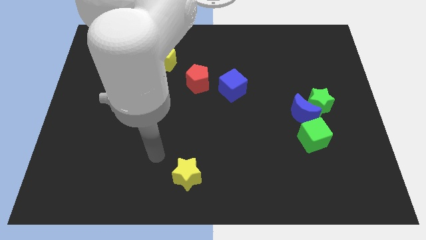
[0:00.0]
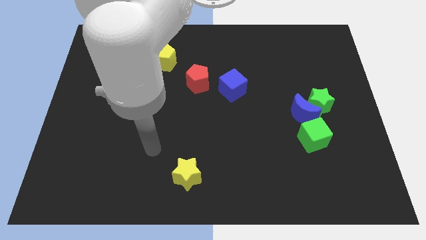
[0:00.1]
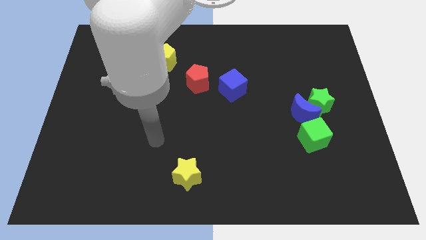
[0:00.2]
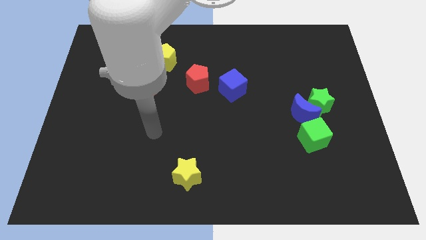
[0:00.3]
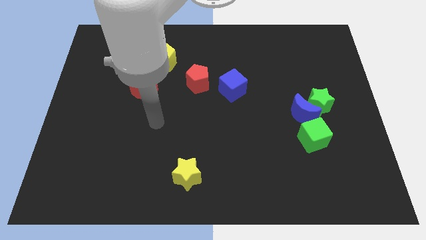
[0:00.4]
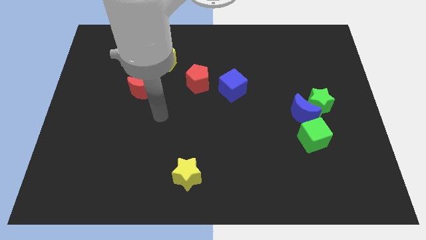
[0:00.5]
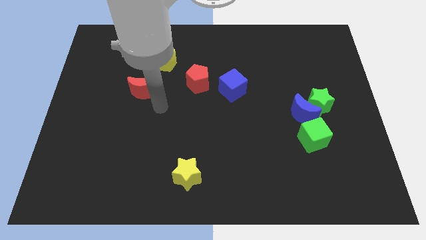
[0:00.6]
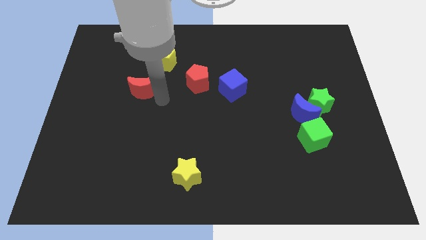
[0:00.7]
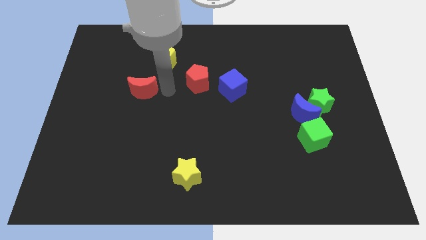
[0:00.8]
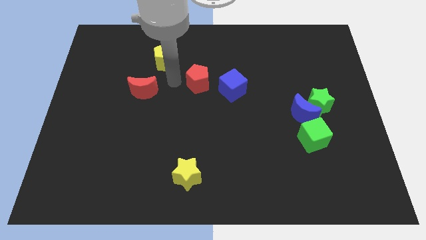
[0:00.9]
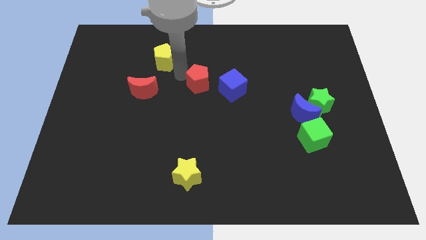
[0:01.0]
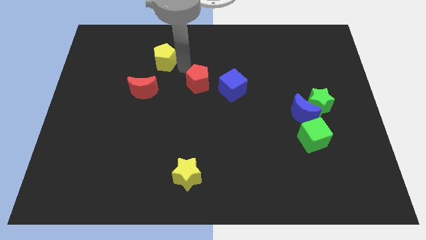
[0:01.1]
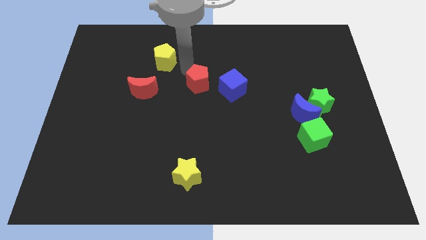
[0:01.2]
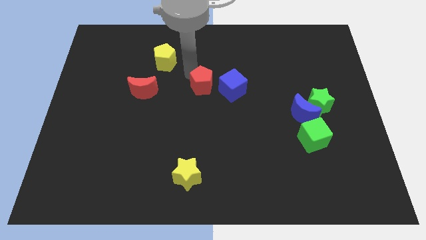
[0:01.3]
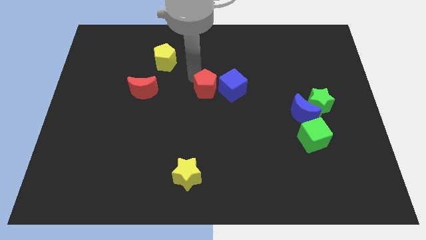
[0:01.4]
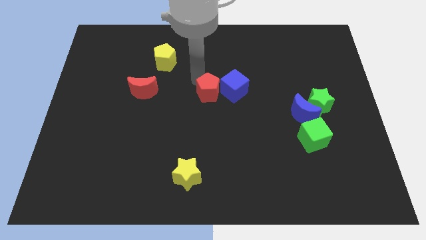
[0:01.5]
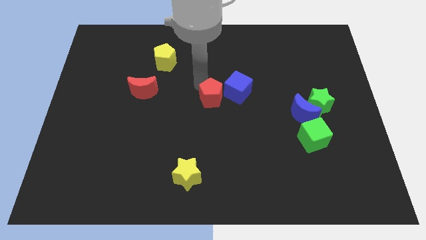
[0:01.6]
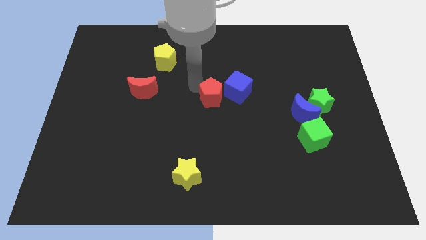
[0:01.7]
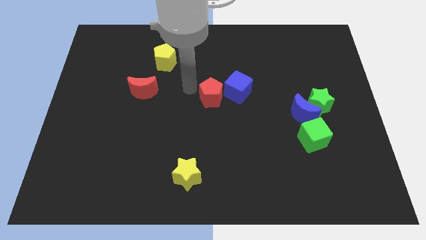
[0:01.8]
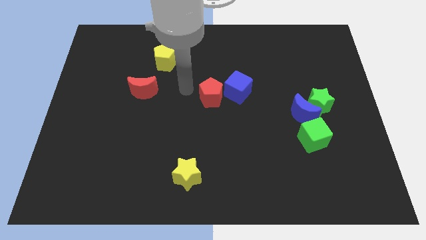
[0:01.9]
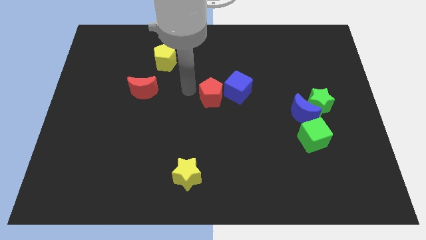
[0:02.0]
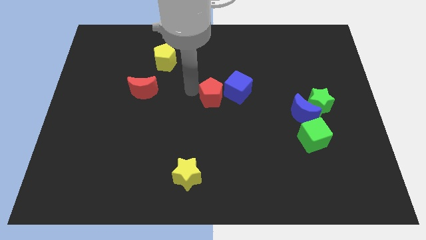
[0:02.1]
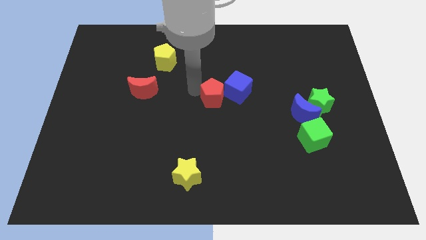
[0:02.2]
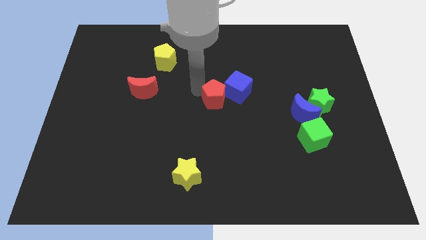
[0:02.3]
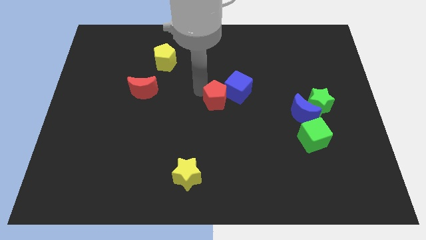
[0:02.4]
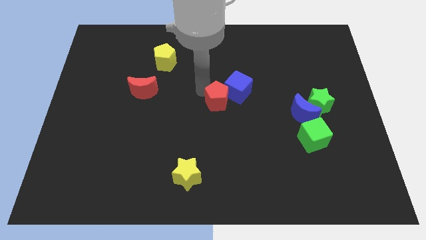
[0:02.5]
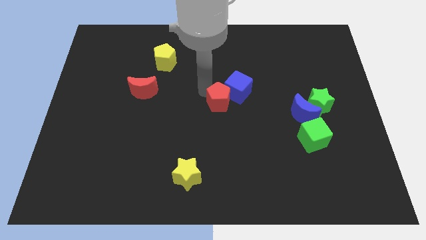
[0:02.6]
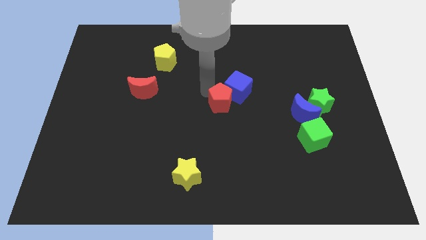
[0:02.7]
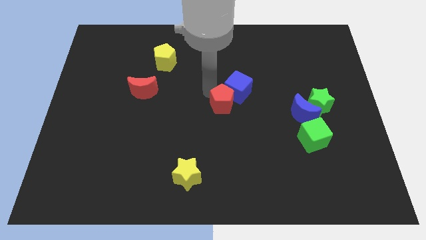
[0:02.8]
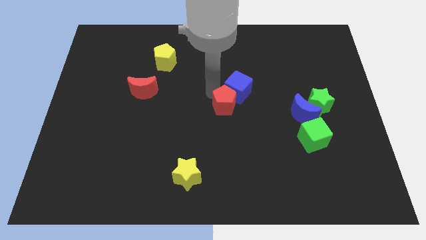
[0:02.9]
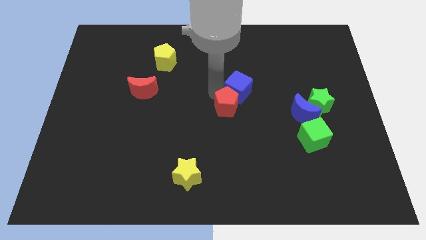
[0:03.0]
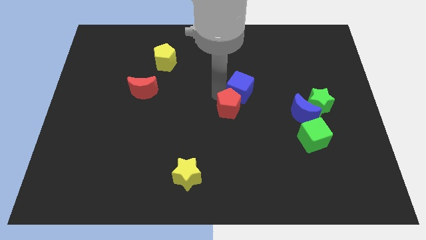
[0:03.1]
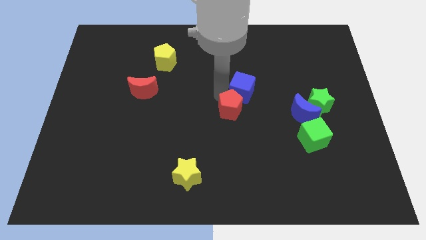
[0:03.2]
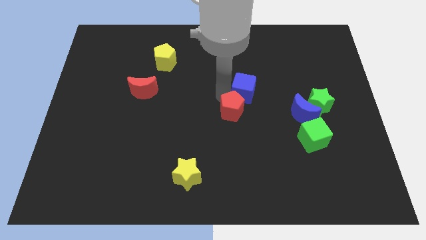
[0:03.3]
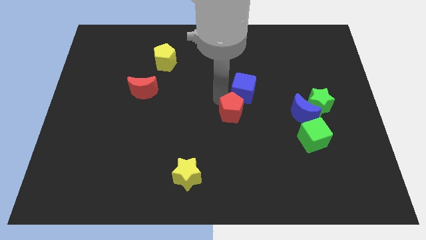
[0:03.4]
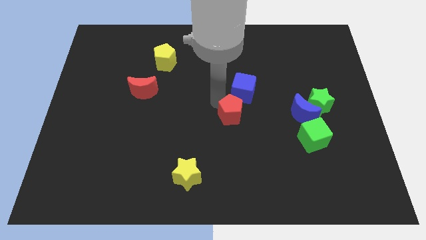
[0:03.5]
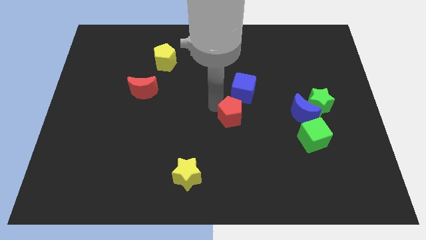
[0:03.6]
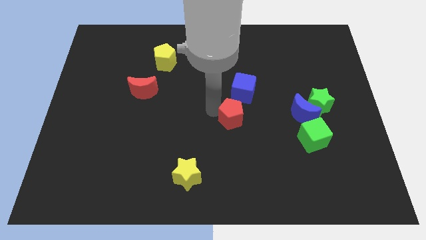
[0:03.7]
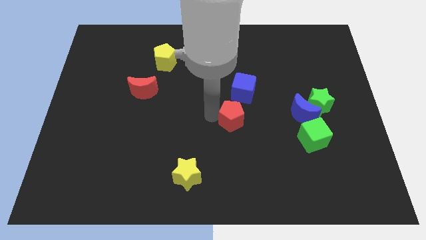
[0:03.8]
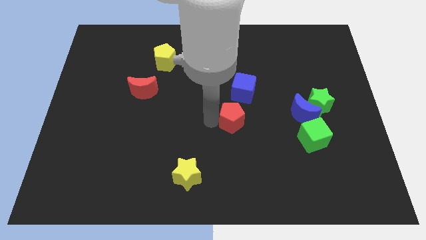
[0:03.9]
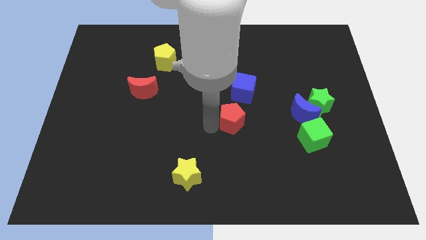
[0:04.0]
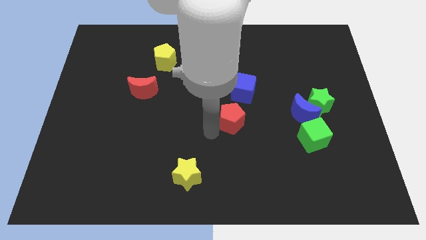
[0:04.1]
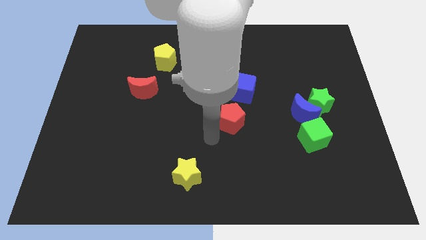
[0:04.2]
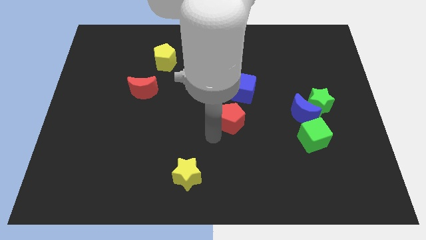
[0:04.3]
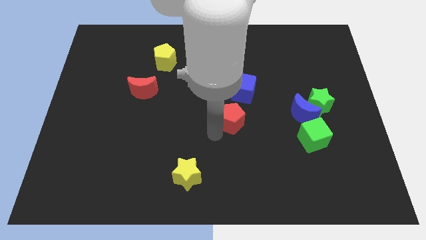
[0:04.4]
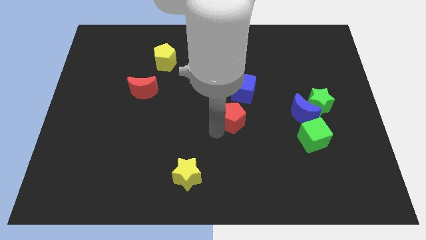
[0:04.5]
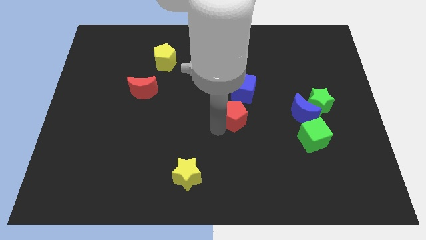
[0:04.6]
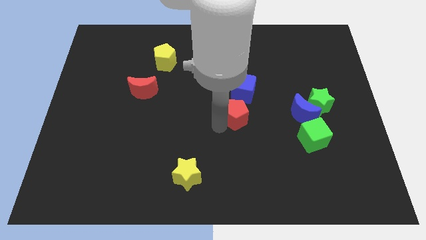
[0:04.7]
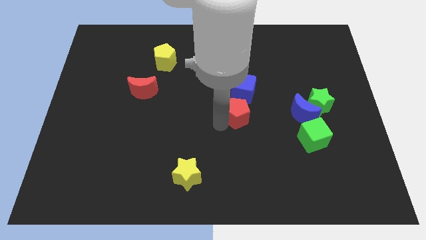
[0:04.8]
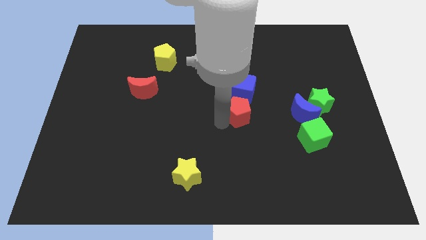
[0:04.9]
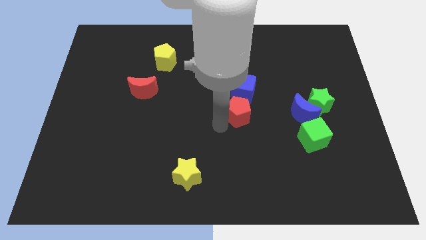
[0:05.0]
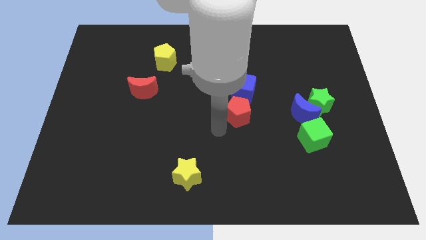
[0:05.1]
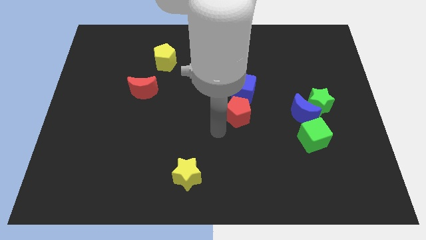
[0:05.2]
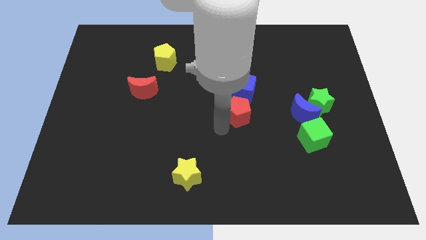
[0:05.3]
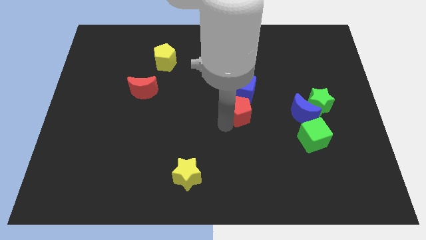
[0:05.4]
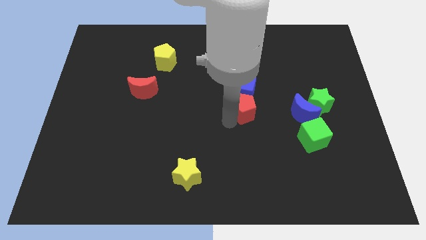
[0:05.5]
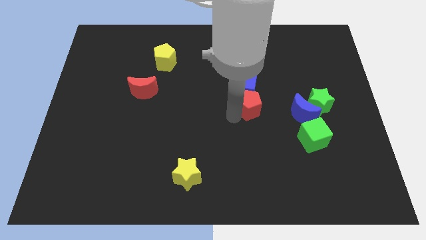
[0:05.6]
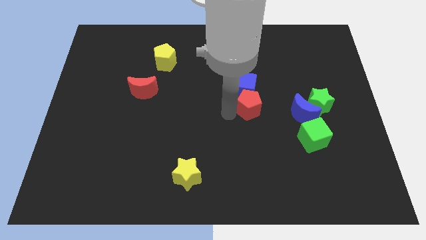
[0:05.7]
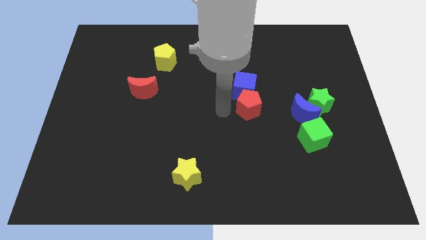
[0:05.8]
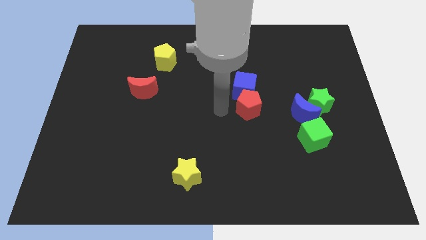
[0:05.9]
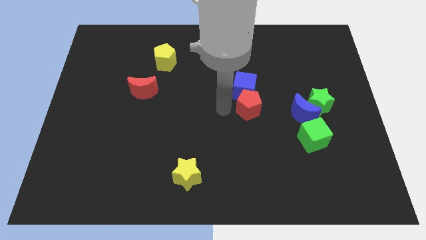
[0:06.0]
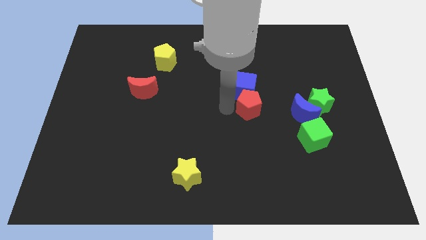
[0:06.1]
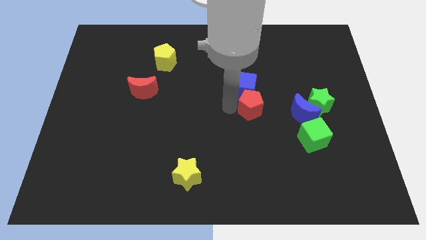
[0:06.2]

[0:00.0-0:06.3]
push the red pentagon just left of the green star

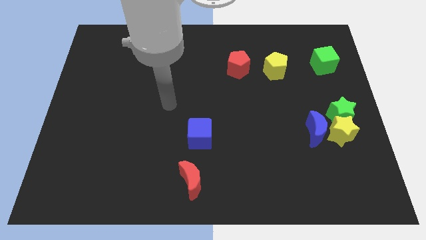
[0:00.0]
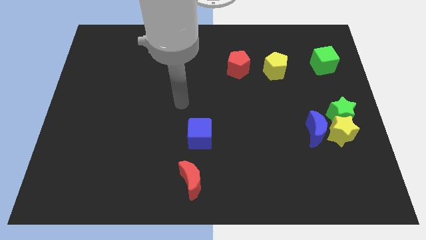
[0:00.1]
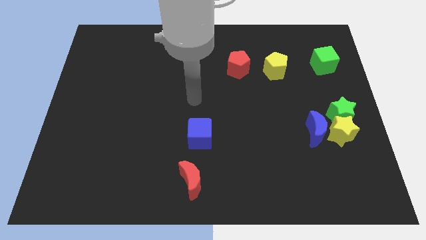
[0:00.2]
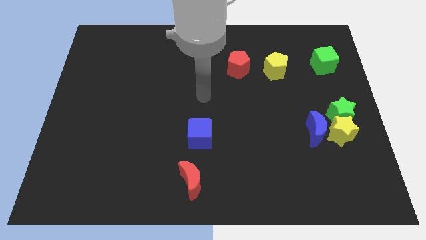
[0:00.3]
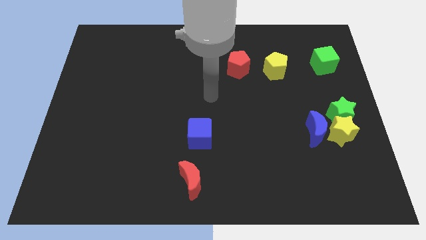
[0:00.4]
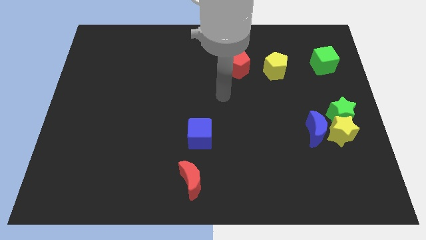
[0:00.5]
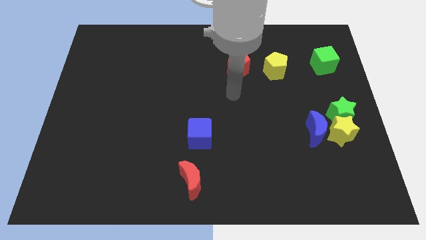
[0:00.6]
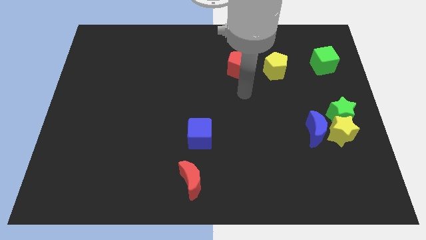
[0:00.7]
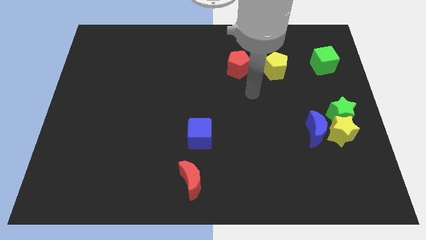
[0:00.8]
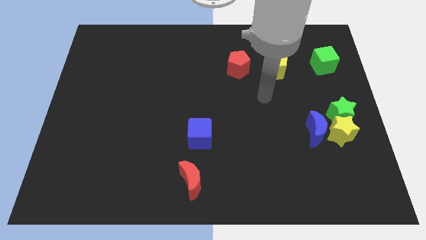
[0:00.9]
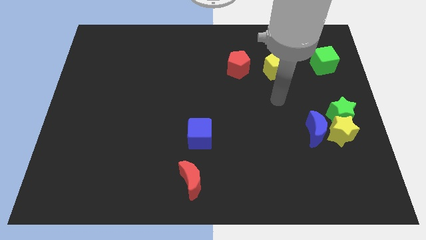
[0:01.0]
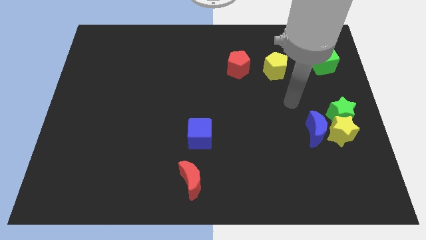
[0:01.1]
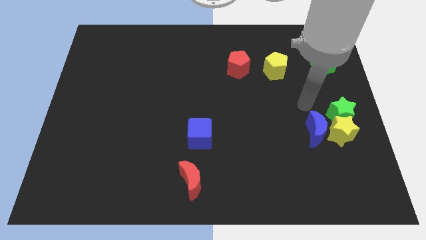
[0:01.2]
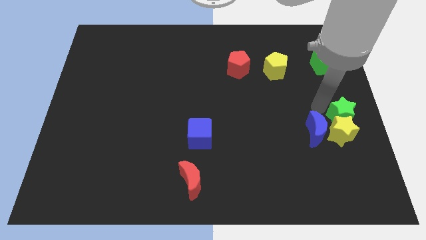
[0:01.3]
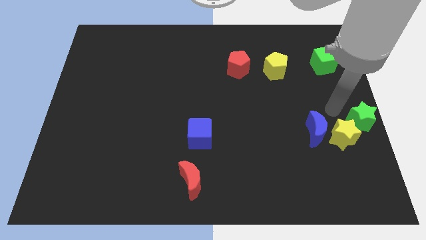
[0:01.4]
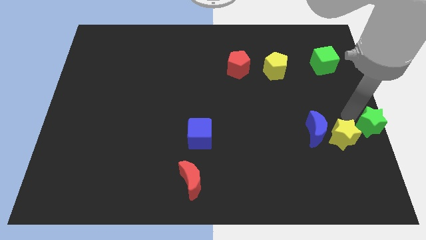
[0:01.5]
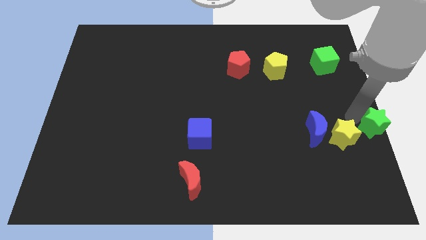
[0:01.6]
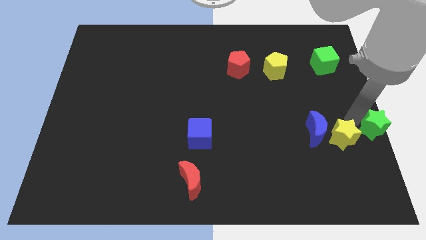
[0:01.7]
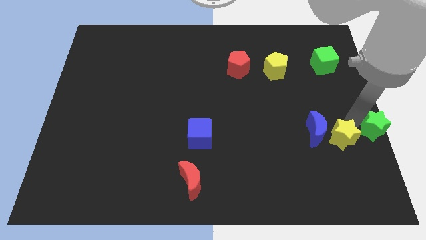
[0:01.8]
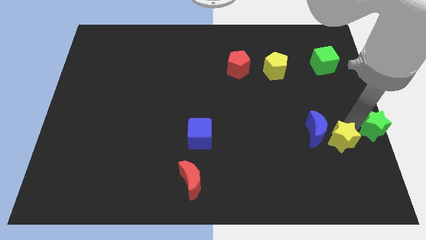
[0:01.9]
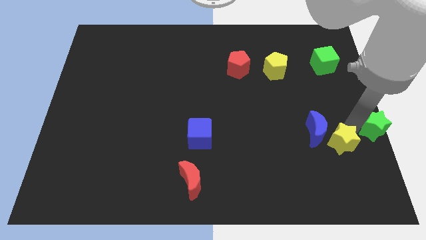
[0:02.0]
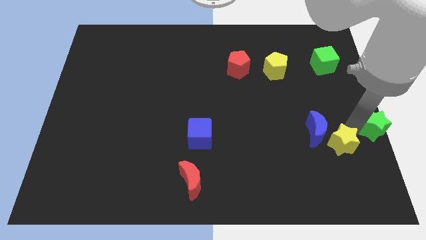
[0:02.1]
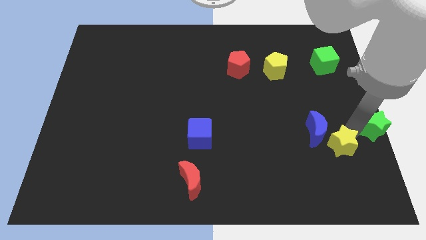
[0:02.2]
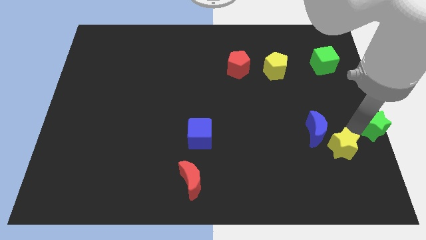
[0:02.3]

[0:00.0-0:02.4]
push the yellow star to the bottom side of the blue moon
